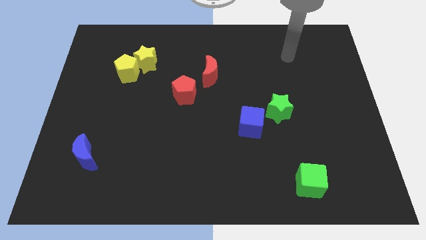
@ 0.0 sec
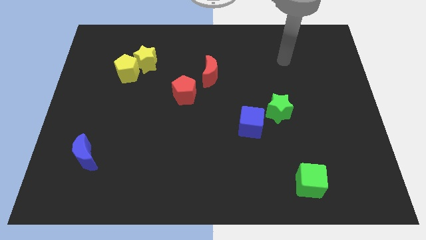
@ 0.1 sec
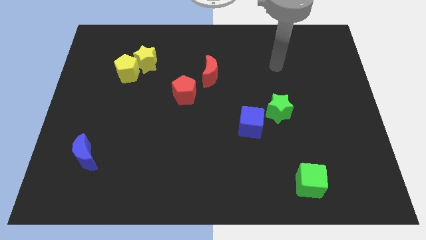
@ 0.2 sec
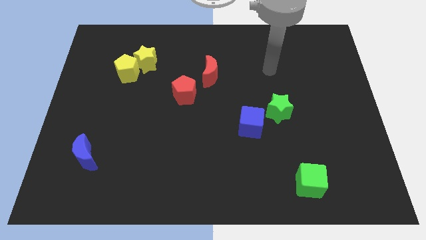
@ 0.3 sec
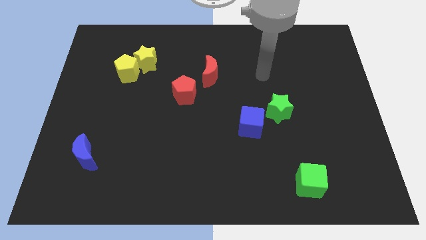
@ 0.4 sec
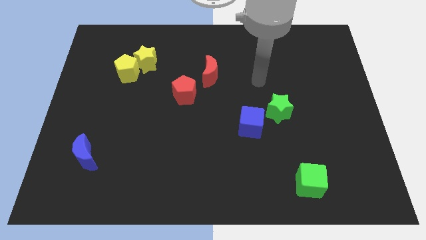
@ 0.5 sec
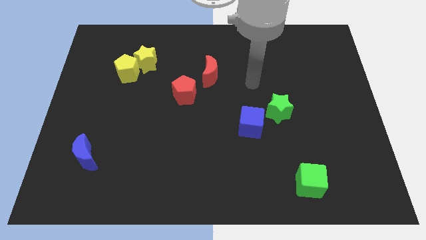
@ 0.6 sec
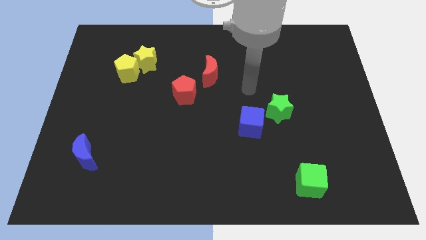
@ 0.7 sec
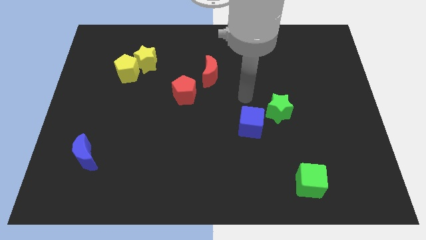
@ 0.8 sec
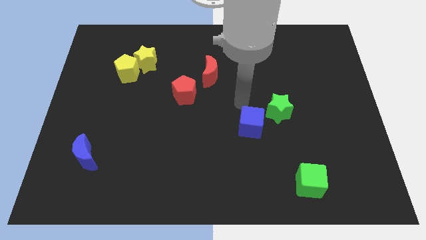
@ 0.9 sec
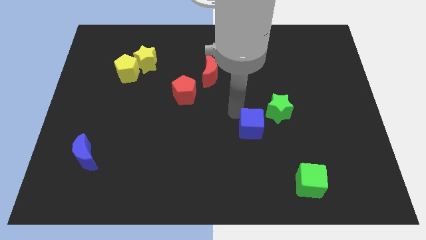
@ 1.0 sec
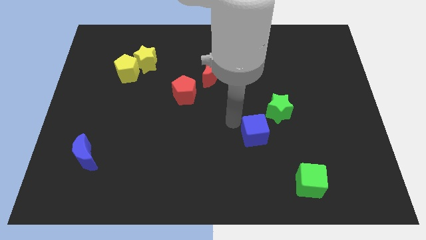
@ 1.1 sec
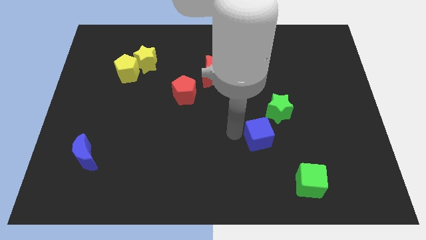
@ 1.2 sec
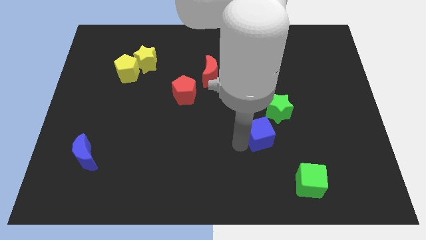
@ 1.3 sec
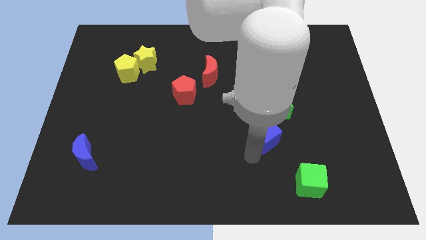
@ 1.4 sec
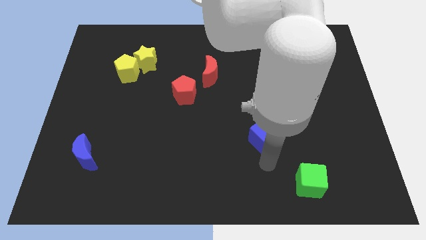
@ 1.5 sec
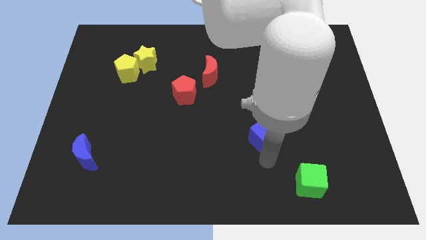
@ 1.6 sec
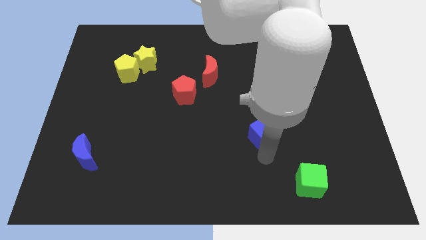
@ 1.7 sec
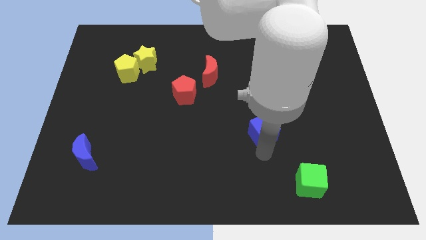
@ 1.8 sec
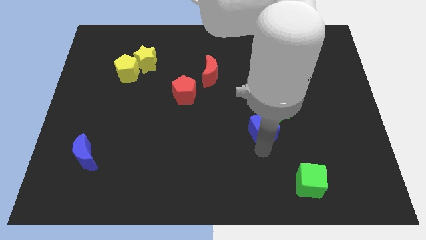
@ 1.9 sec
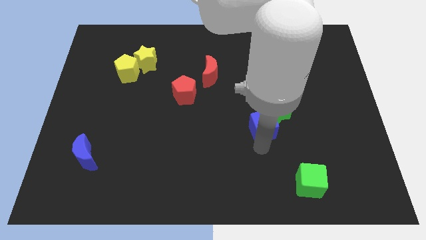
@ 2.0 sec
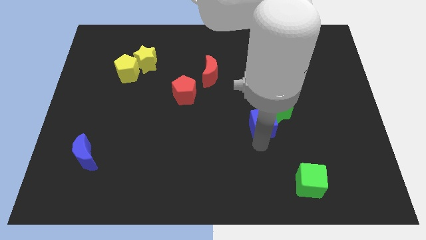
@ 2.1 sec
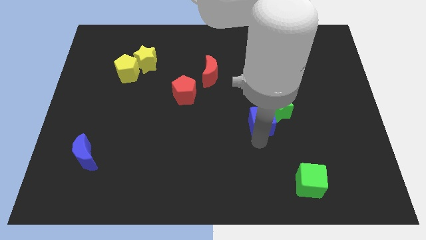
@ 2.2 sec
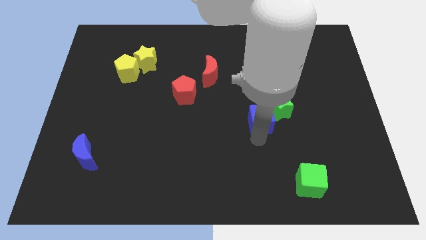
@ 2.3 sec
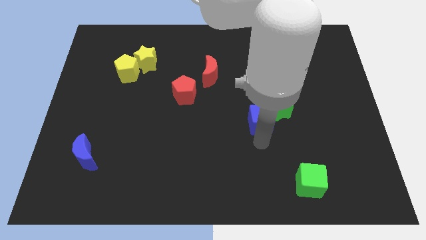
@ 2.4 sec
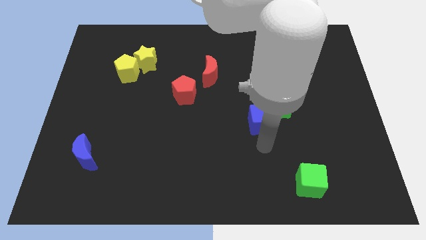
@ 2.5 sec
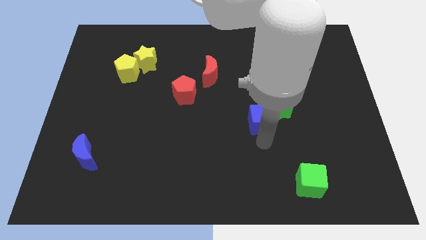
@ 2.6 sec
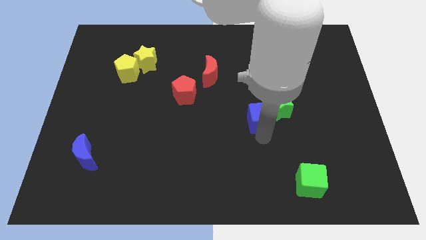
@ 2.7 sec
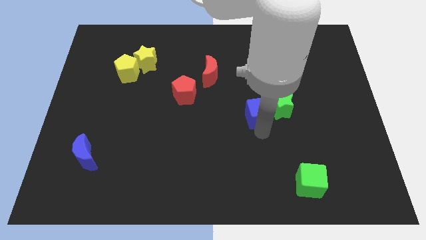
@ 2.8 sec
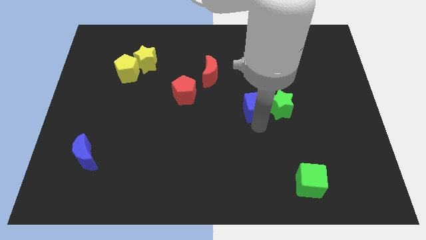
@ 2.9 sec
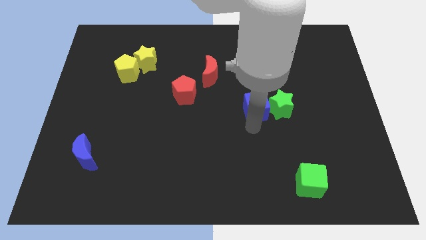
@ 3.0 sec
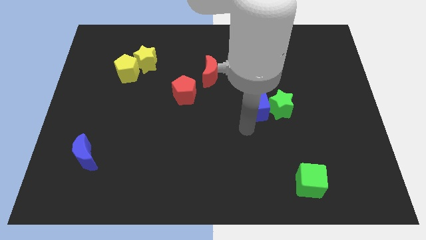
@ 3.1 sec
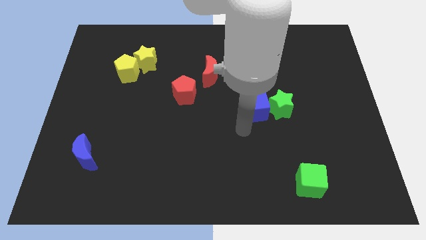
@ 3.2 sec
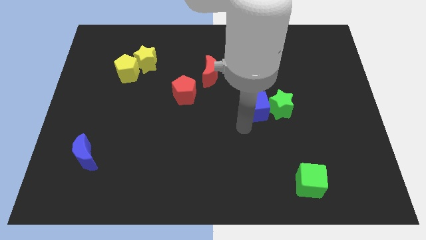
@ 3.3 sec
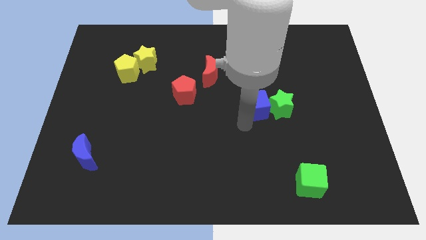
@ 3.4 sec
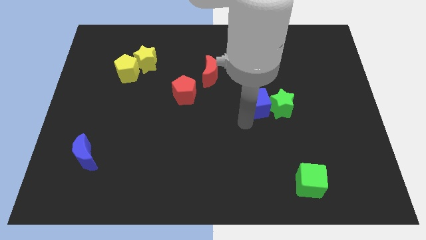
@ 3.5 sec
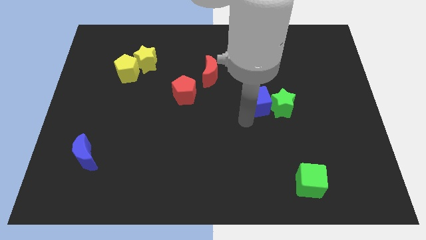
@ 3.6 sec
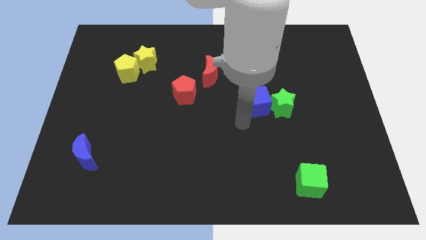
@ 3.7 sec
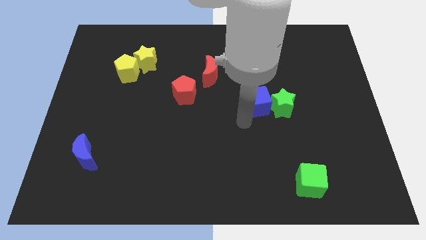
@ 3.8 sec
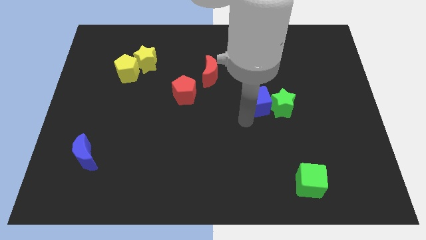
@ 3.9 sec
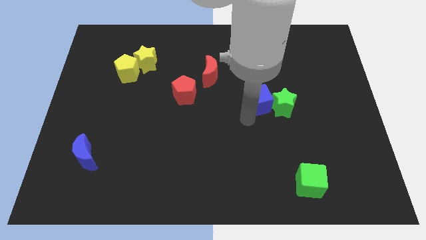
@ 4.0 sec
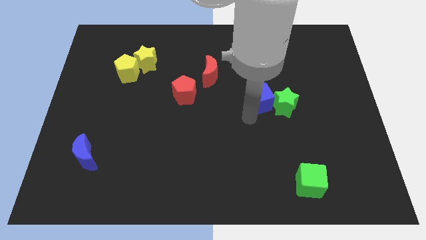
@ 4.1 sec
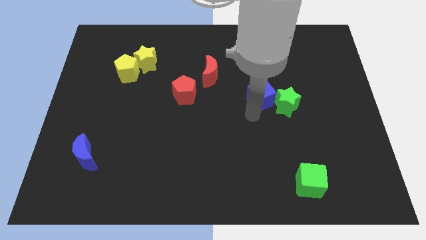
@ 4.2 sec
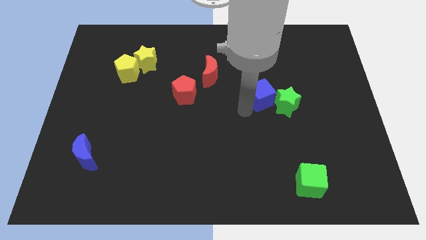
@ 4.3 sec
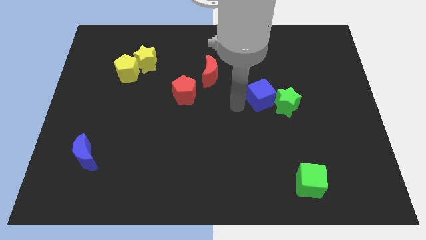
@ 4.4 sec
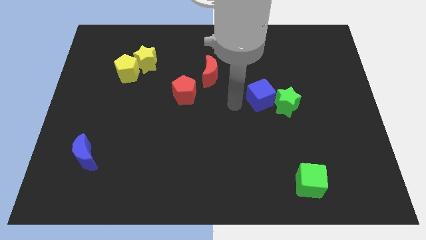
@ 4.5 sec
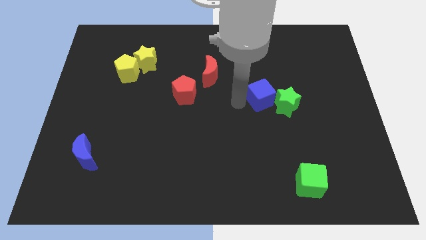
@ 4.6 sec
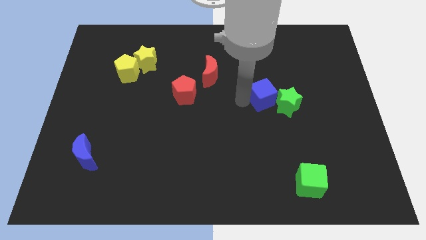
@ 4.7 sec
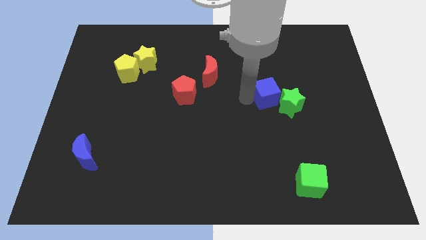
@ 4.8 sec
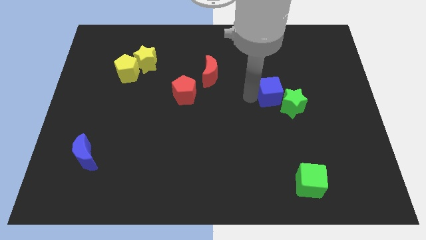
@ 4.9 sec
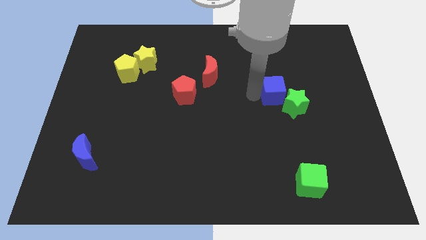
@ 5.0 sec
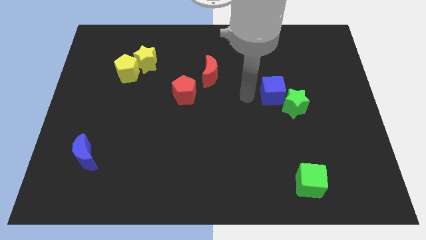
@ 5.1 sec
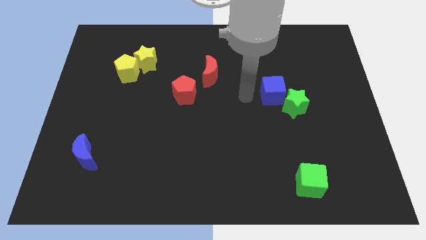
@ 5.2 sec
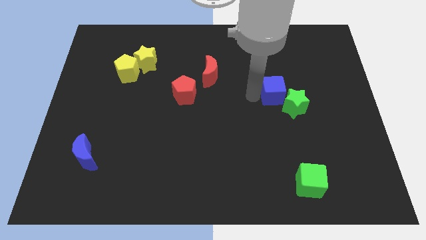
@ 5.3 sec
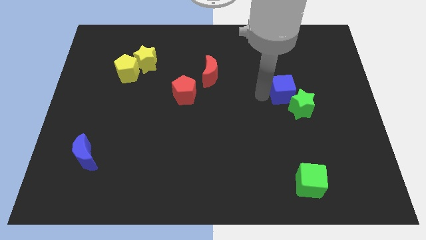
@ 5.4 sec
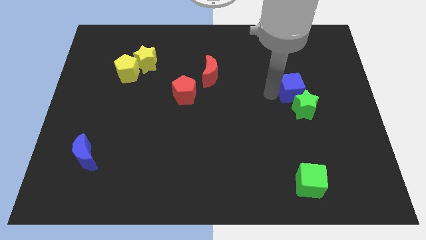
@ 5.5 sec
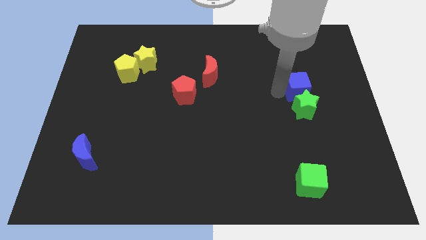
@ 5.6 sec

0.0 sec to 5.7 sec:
put the blue cube to the top right side of the green star

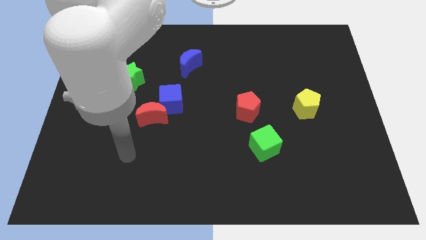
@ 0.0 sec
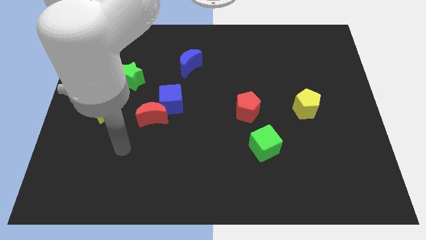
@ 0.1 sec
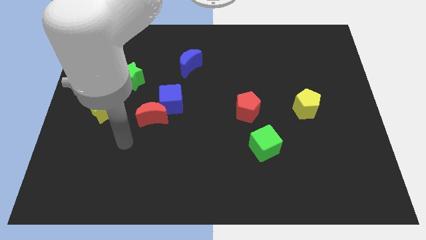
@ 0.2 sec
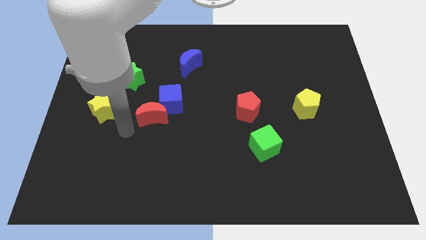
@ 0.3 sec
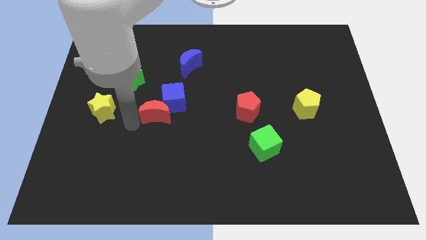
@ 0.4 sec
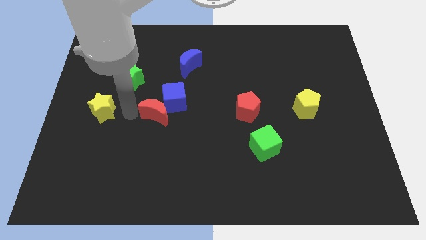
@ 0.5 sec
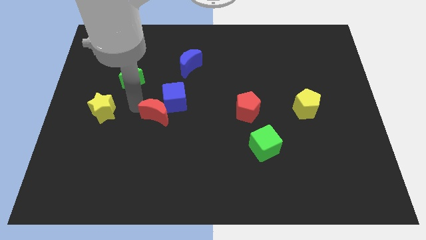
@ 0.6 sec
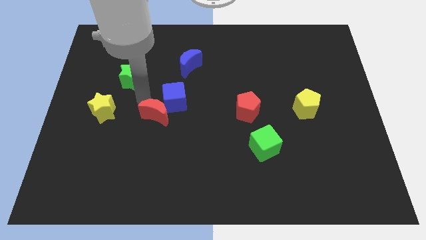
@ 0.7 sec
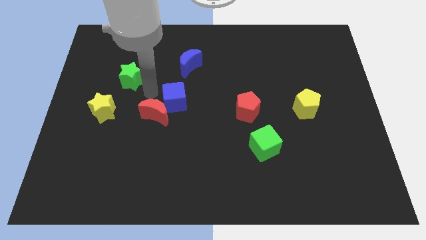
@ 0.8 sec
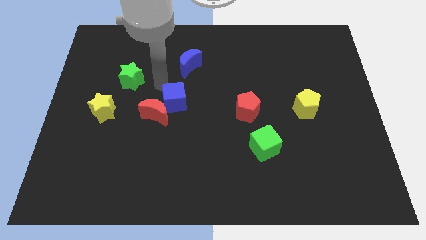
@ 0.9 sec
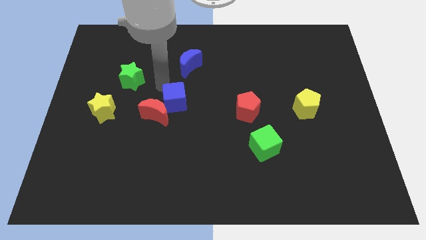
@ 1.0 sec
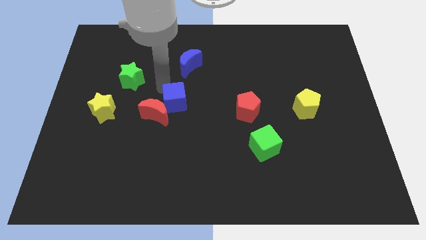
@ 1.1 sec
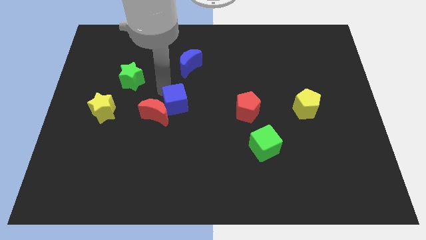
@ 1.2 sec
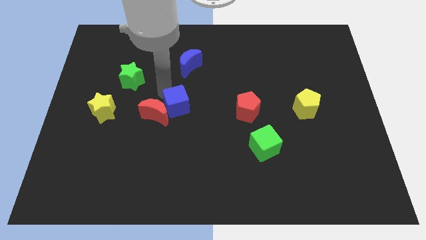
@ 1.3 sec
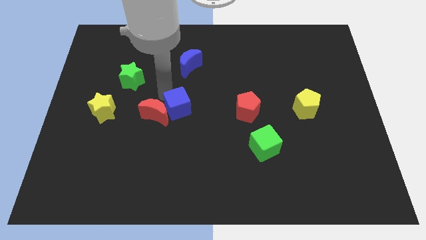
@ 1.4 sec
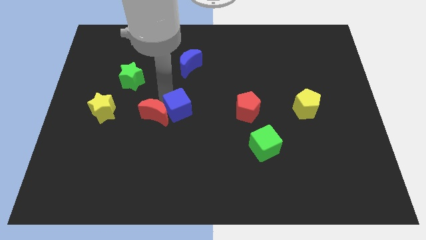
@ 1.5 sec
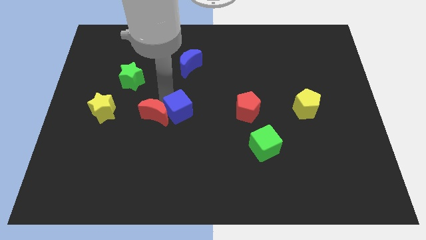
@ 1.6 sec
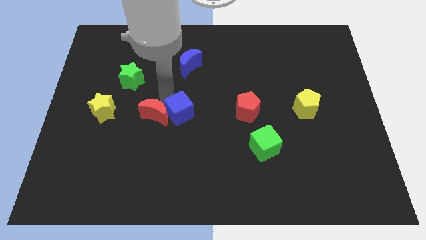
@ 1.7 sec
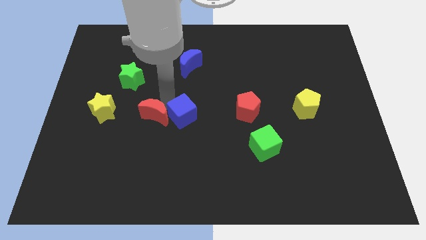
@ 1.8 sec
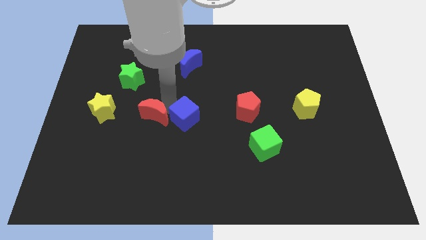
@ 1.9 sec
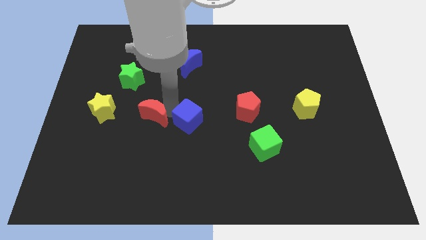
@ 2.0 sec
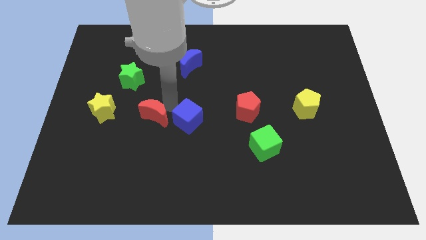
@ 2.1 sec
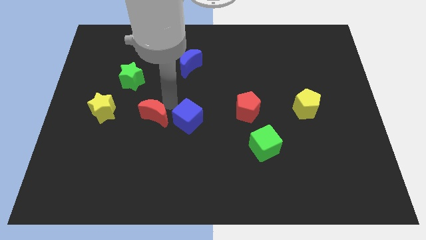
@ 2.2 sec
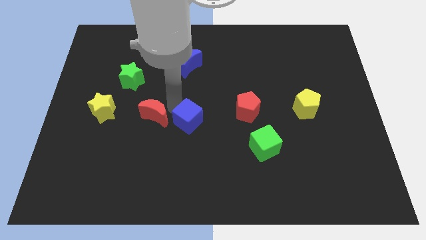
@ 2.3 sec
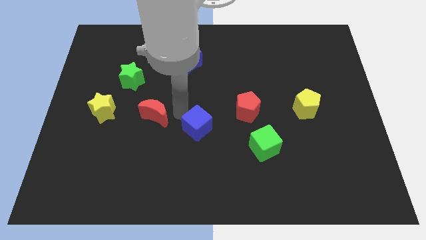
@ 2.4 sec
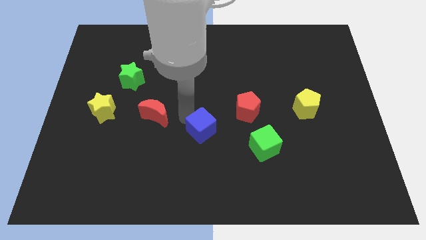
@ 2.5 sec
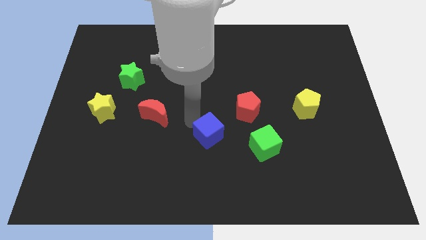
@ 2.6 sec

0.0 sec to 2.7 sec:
slide the blue cube to the left of the green cube
